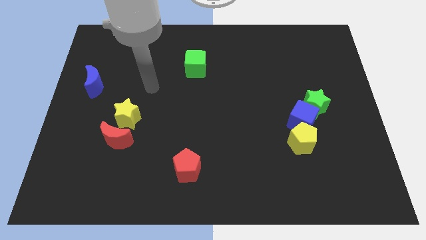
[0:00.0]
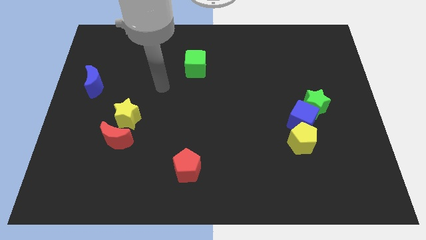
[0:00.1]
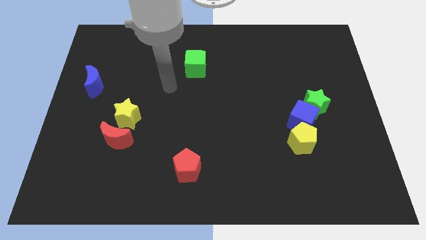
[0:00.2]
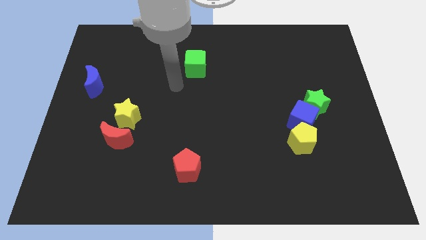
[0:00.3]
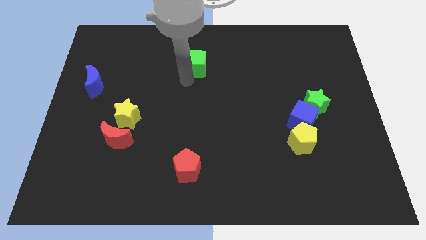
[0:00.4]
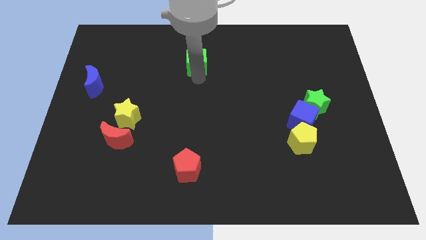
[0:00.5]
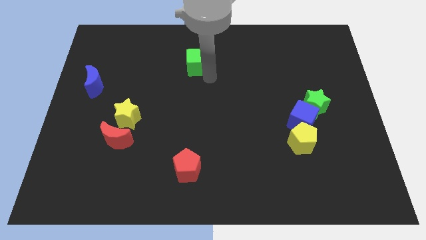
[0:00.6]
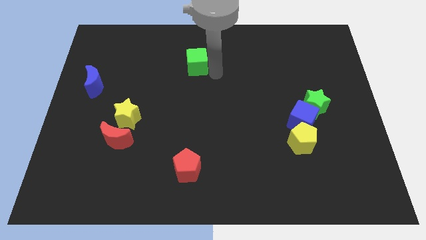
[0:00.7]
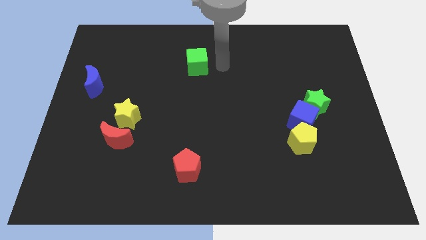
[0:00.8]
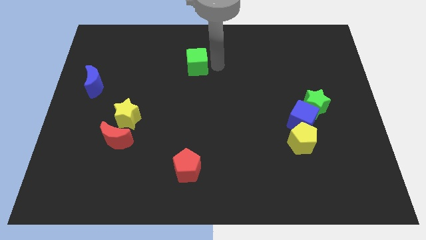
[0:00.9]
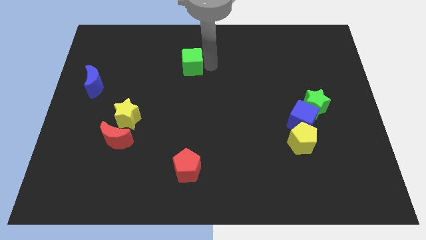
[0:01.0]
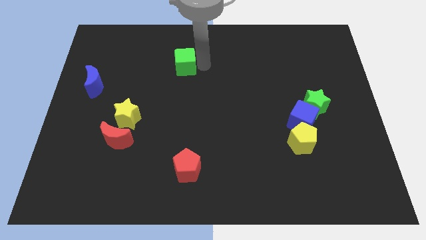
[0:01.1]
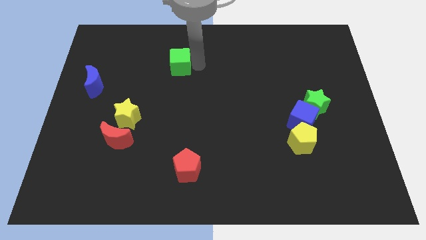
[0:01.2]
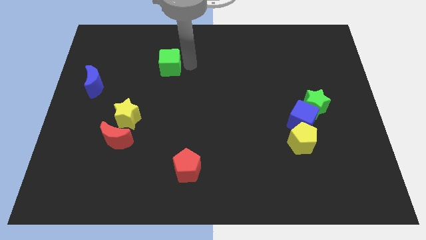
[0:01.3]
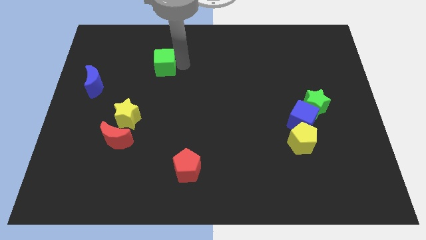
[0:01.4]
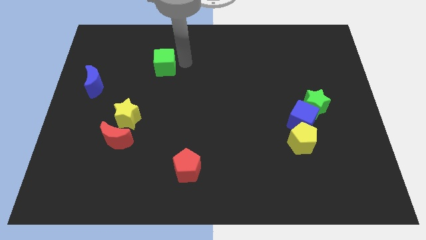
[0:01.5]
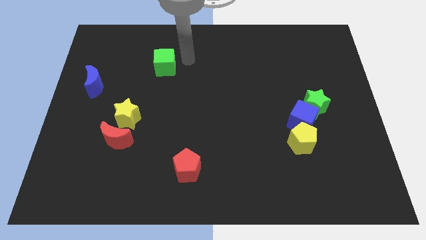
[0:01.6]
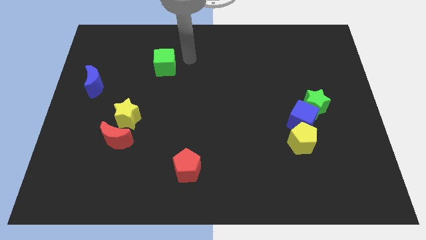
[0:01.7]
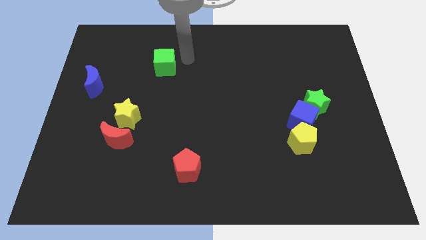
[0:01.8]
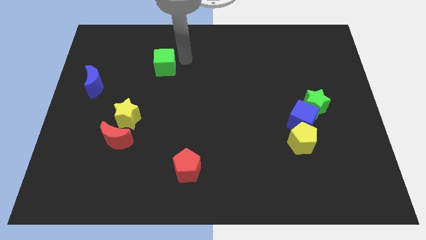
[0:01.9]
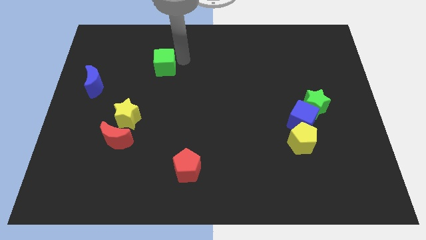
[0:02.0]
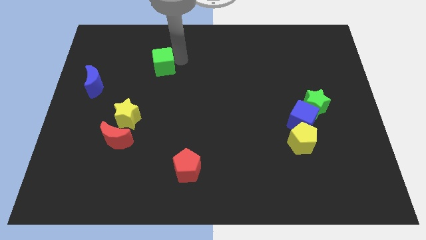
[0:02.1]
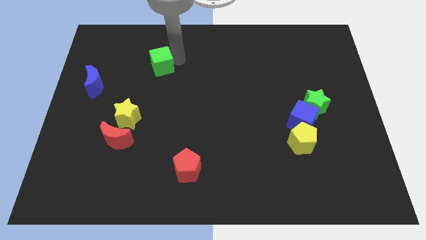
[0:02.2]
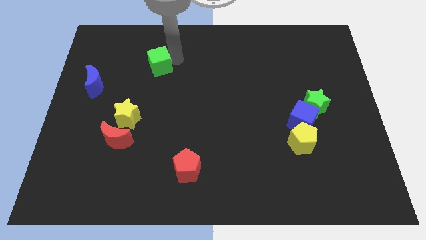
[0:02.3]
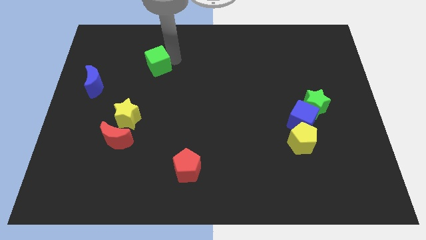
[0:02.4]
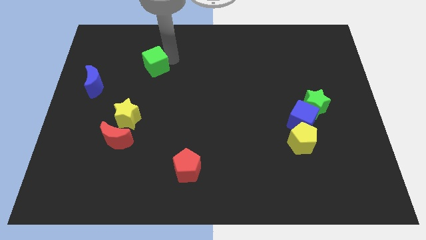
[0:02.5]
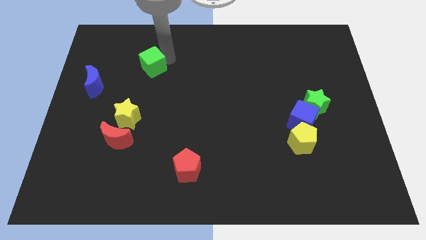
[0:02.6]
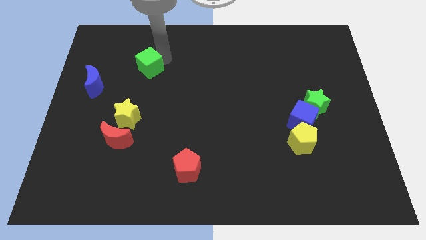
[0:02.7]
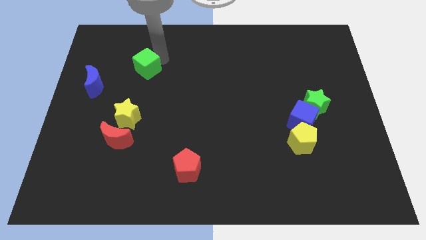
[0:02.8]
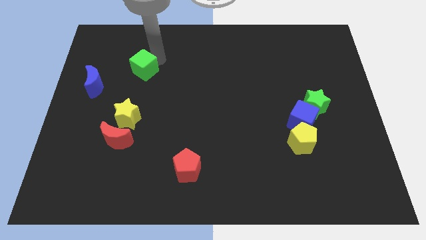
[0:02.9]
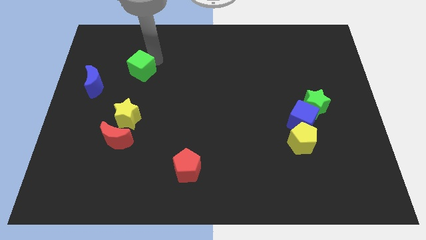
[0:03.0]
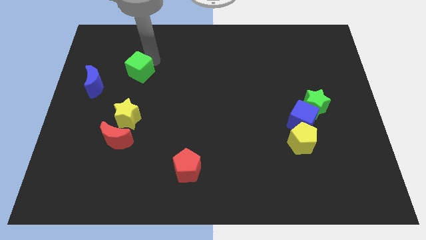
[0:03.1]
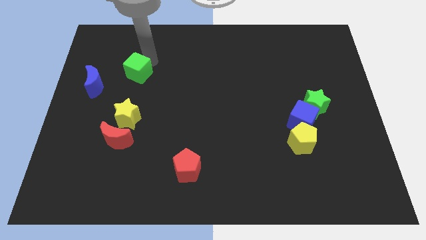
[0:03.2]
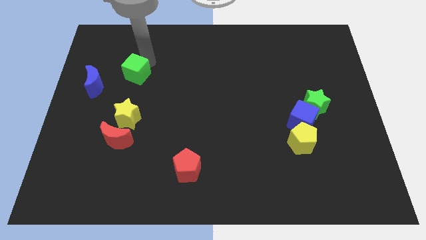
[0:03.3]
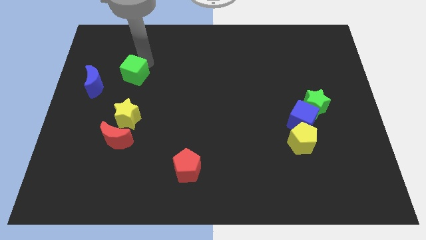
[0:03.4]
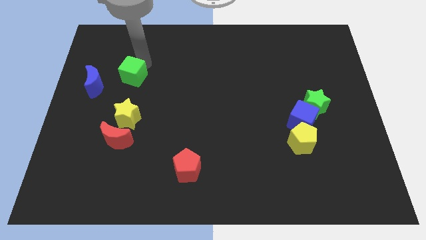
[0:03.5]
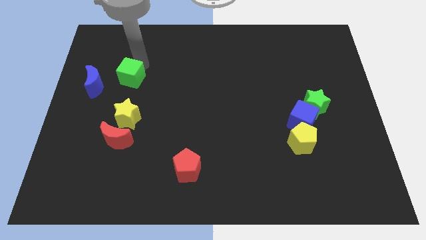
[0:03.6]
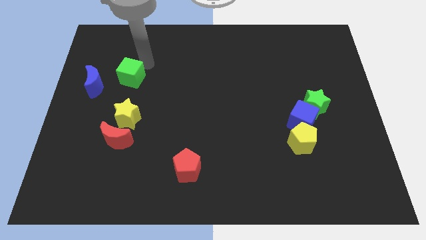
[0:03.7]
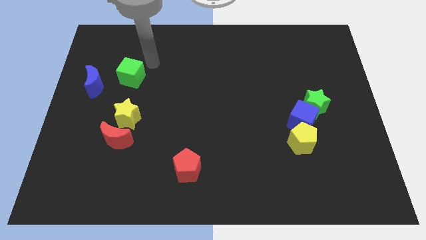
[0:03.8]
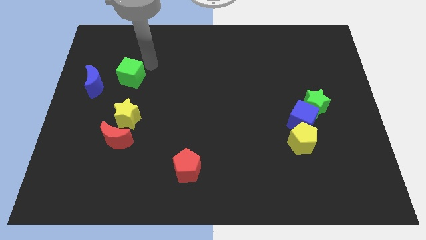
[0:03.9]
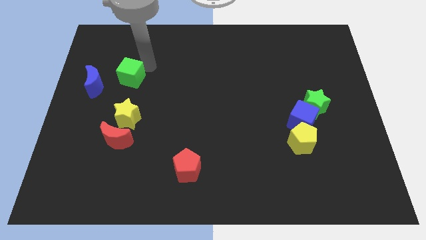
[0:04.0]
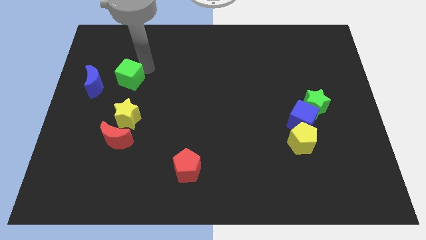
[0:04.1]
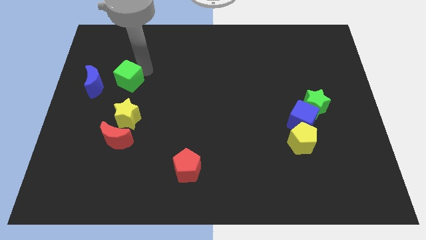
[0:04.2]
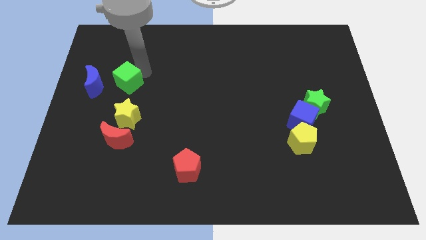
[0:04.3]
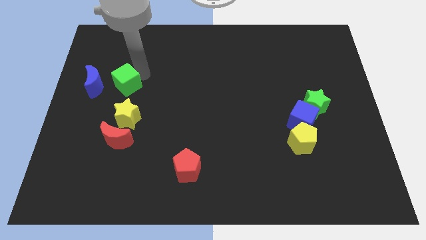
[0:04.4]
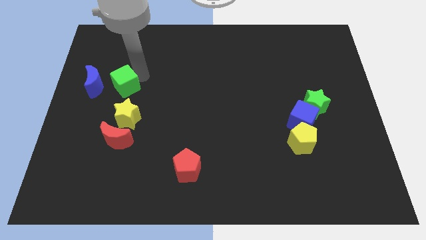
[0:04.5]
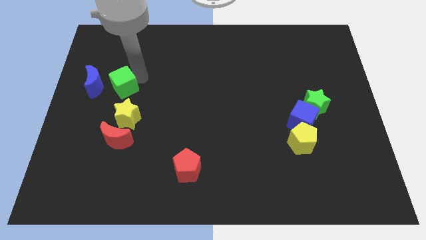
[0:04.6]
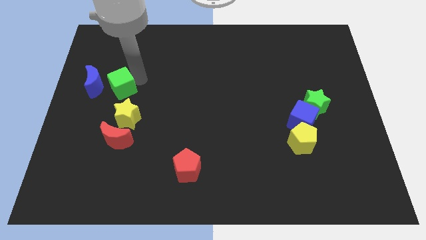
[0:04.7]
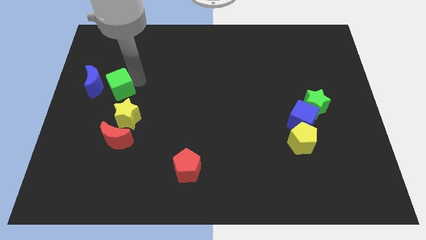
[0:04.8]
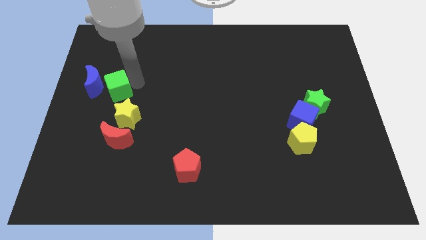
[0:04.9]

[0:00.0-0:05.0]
slide the green cube to the blue moon

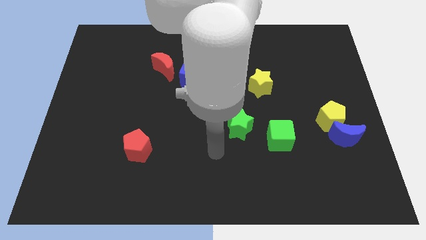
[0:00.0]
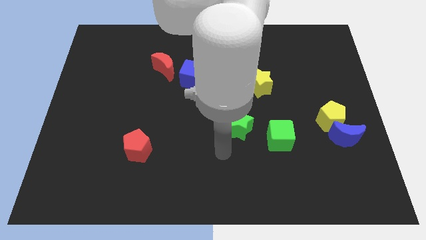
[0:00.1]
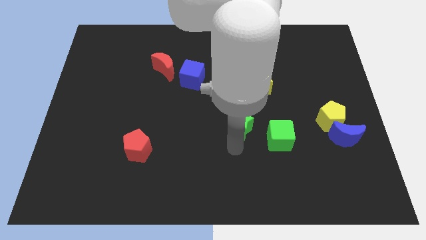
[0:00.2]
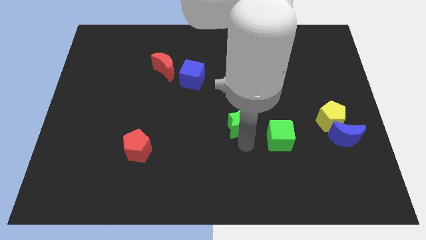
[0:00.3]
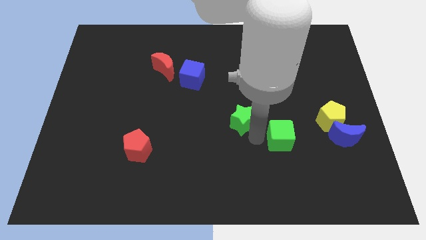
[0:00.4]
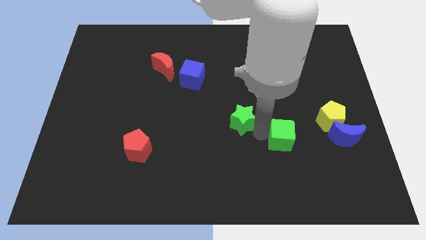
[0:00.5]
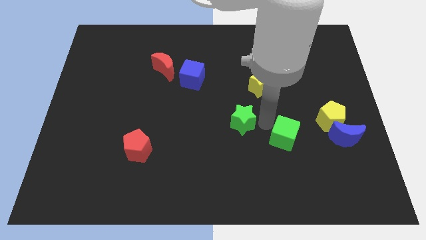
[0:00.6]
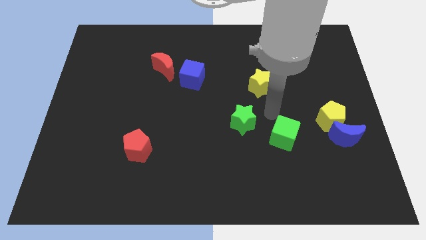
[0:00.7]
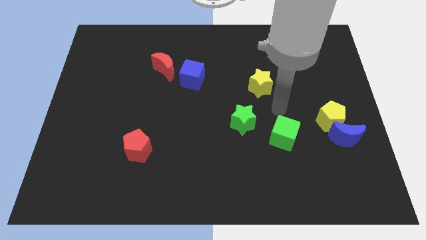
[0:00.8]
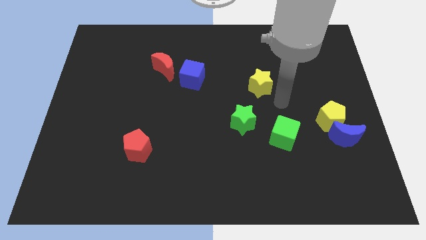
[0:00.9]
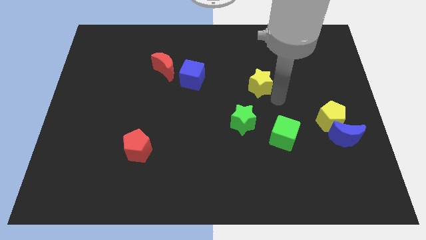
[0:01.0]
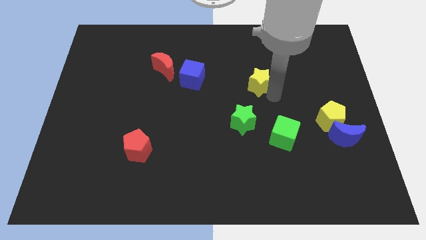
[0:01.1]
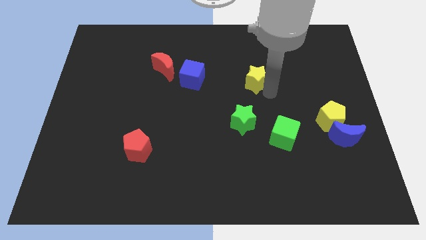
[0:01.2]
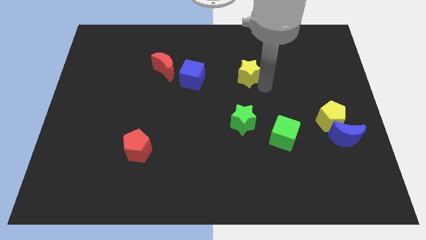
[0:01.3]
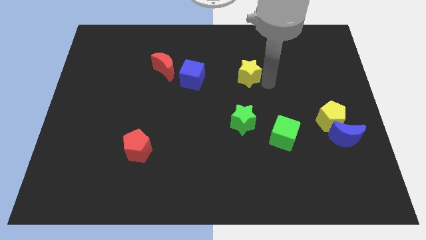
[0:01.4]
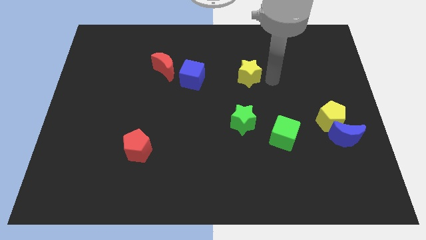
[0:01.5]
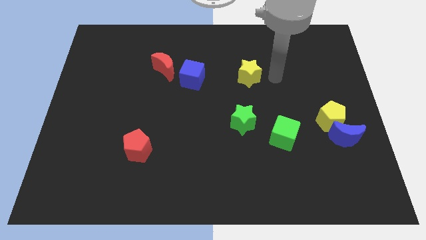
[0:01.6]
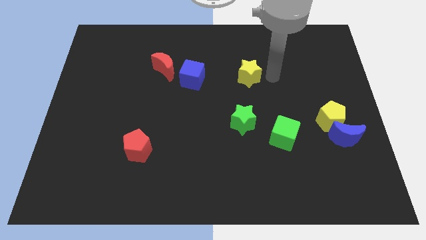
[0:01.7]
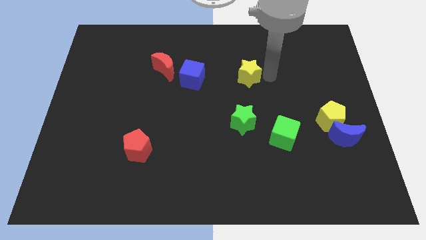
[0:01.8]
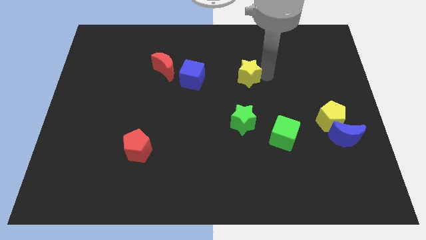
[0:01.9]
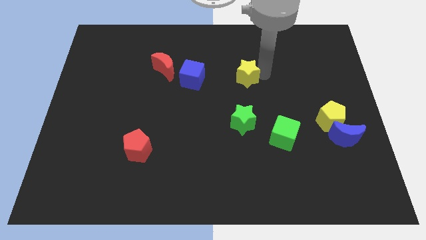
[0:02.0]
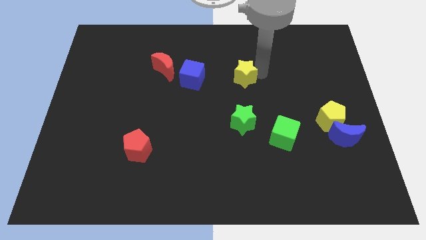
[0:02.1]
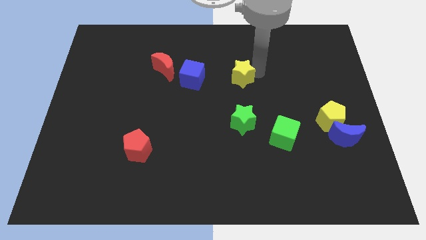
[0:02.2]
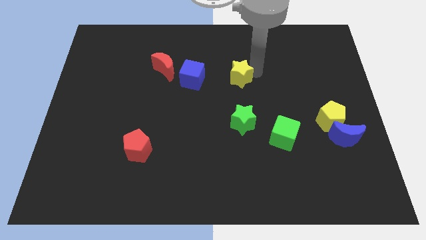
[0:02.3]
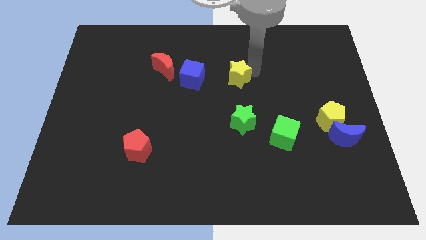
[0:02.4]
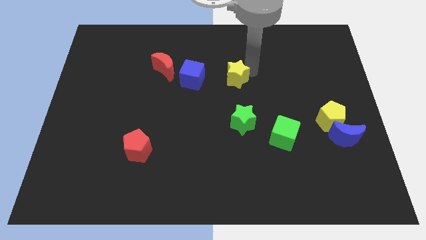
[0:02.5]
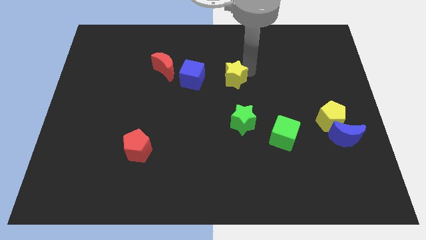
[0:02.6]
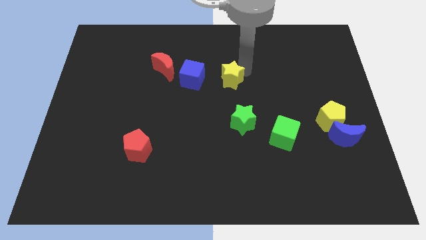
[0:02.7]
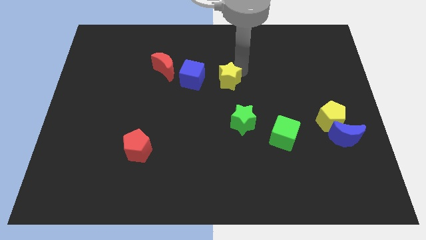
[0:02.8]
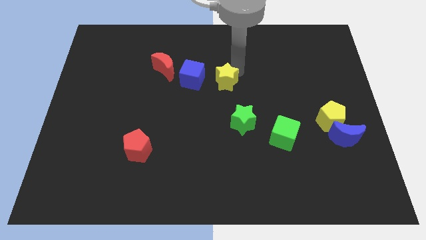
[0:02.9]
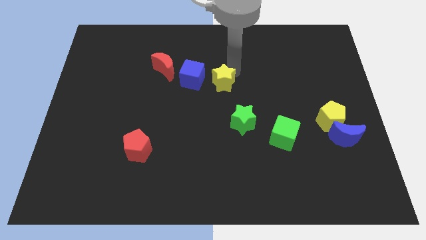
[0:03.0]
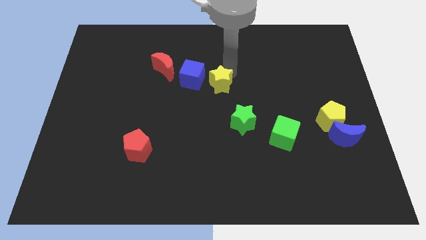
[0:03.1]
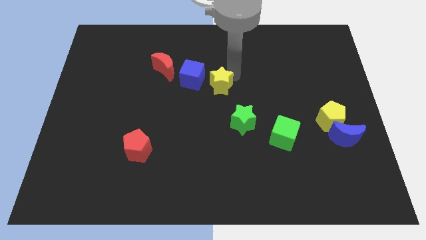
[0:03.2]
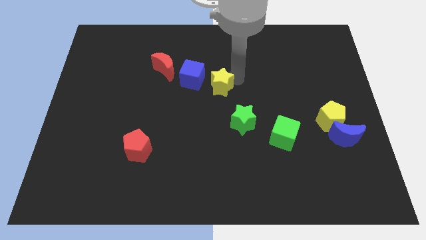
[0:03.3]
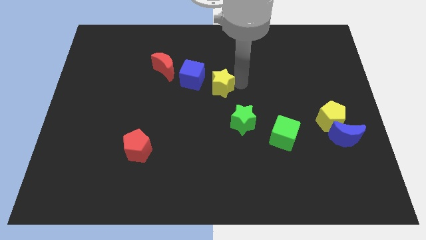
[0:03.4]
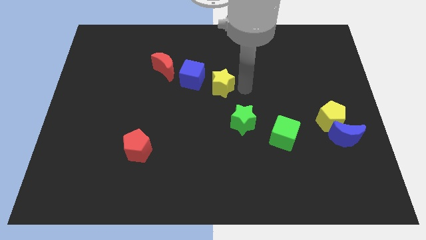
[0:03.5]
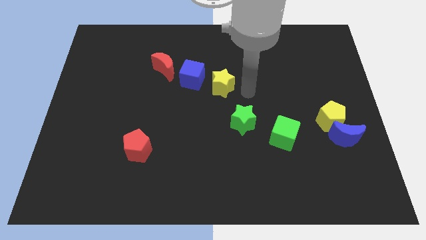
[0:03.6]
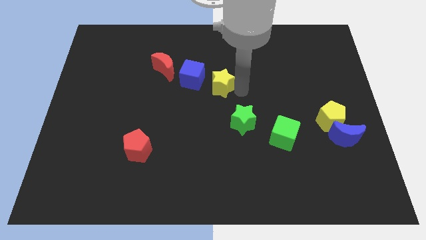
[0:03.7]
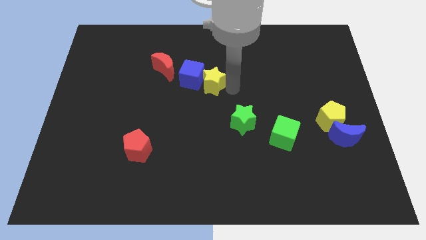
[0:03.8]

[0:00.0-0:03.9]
push the yellow star towards the blue cube
